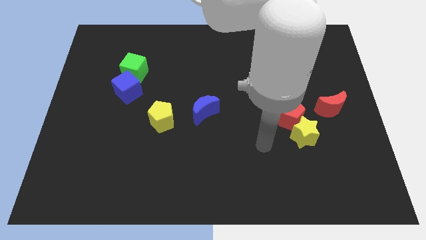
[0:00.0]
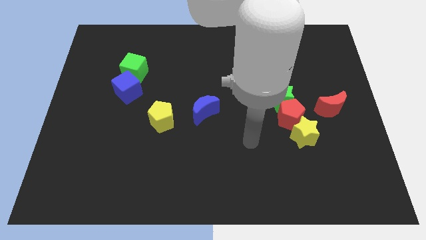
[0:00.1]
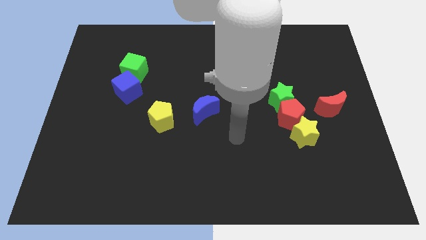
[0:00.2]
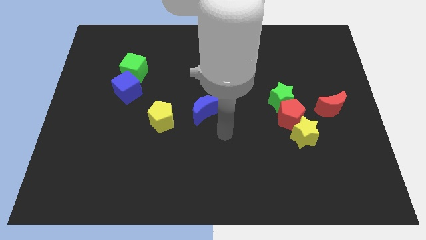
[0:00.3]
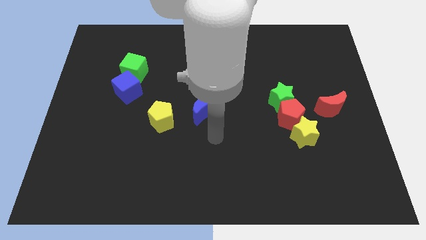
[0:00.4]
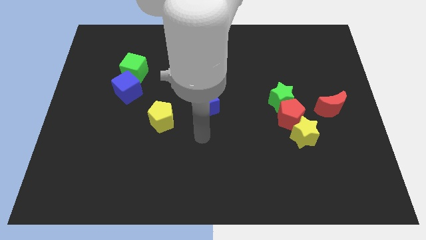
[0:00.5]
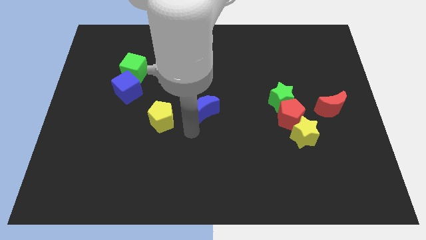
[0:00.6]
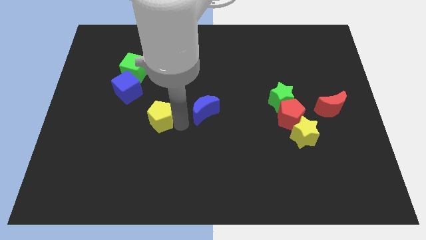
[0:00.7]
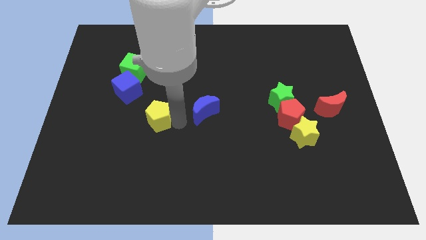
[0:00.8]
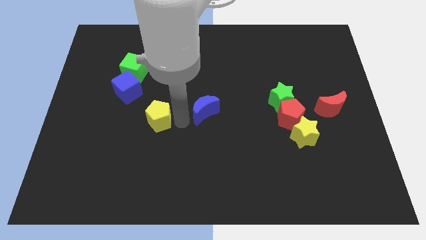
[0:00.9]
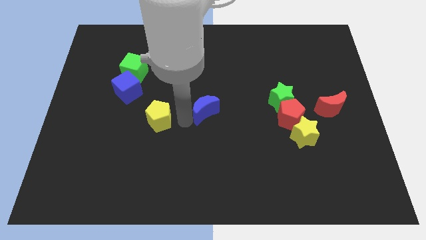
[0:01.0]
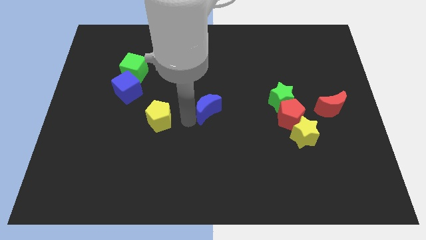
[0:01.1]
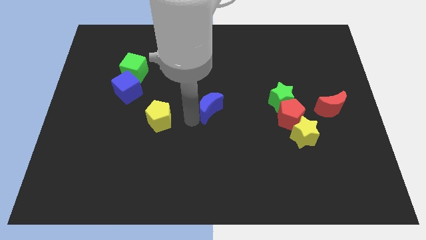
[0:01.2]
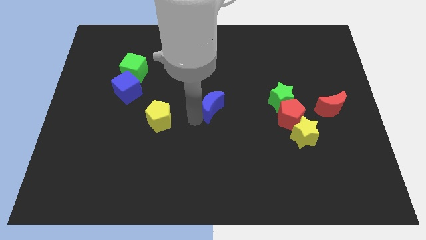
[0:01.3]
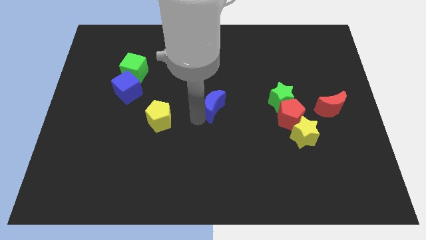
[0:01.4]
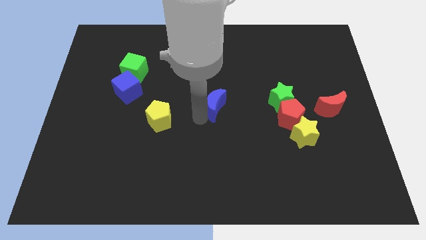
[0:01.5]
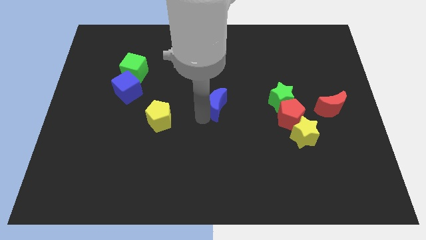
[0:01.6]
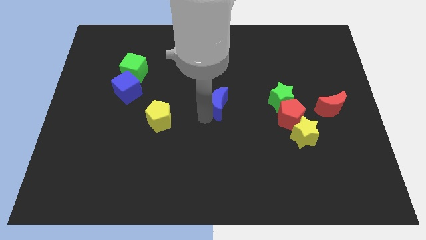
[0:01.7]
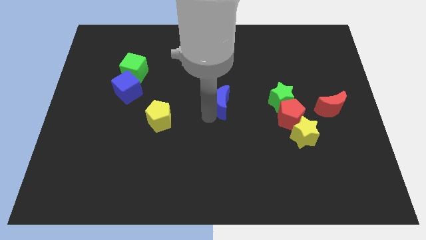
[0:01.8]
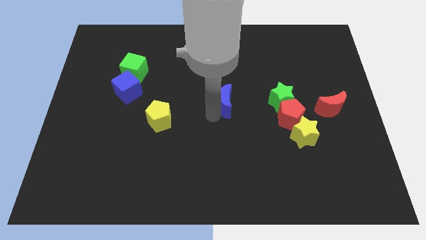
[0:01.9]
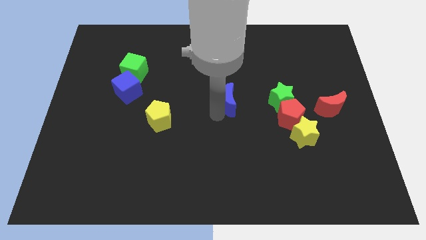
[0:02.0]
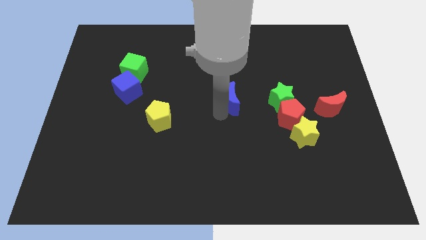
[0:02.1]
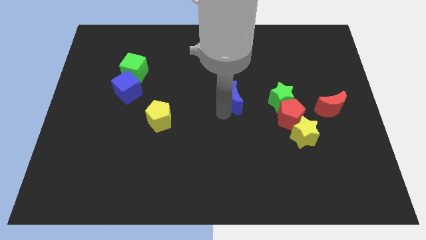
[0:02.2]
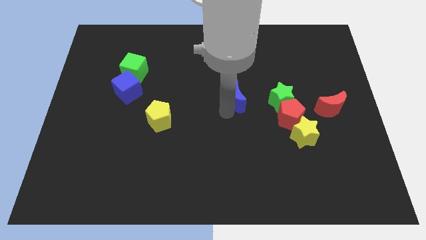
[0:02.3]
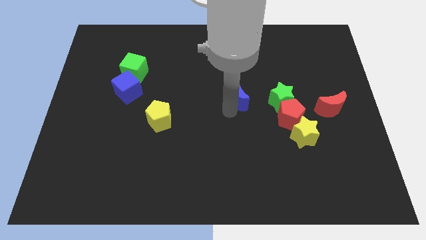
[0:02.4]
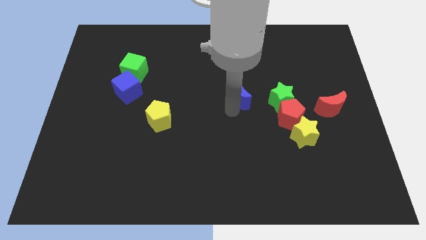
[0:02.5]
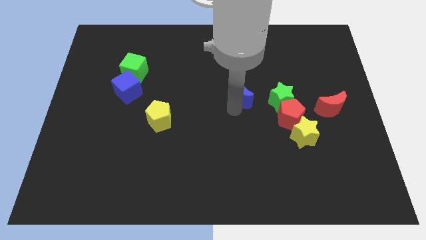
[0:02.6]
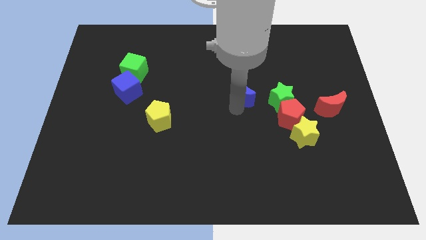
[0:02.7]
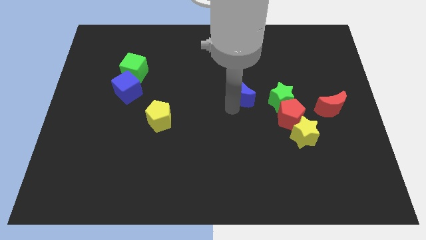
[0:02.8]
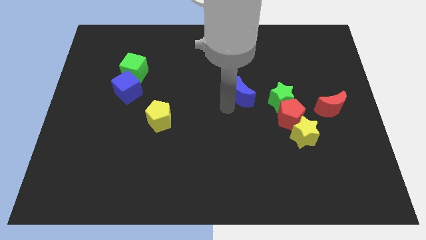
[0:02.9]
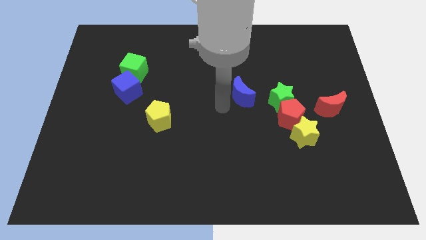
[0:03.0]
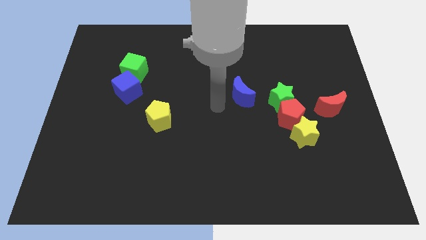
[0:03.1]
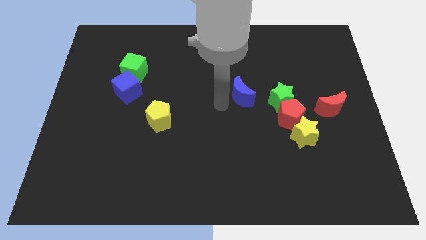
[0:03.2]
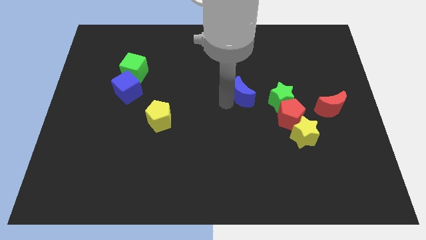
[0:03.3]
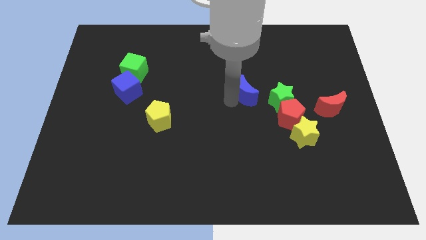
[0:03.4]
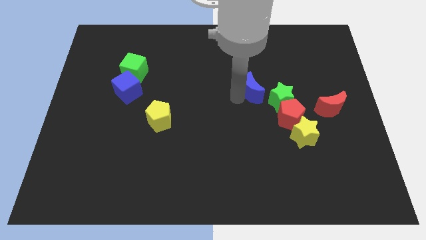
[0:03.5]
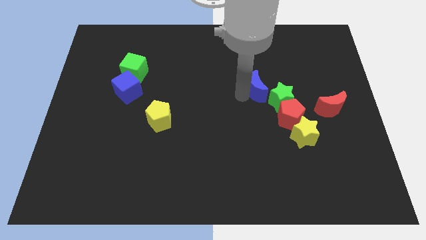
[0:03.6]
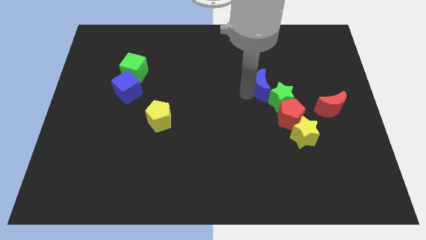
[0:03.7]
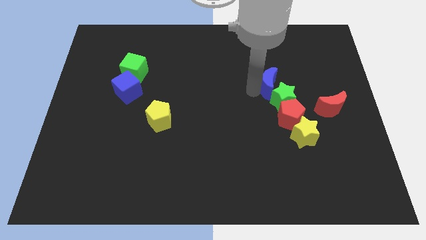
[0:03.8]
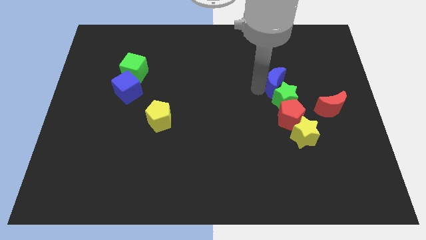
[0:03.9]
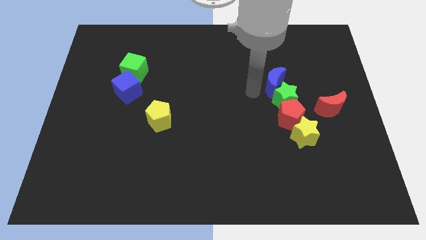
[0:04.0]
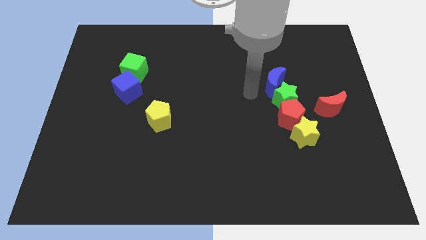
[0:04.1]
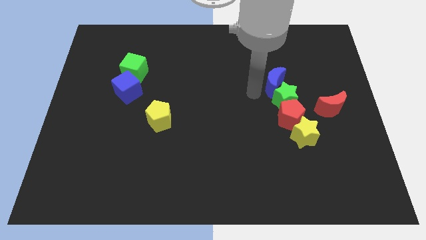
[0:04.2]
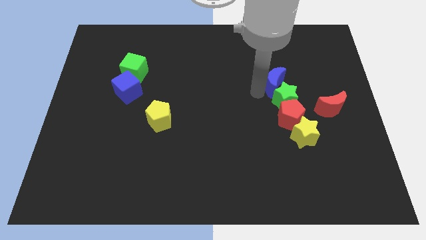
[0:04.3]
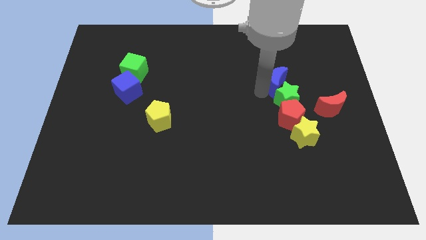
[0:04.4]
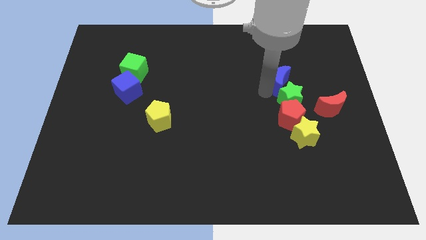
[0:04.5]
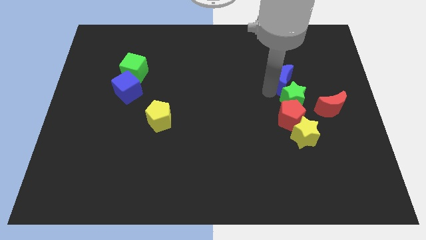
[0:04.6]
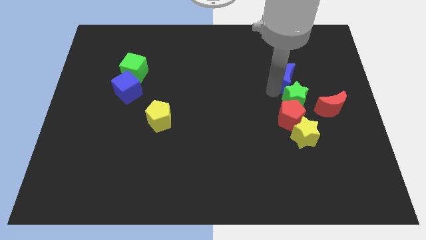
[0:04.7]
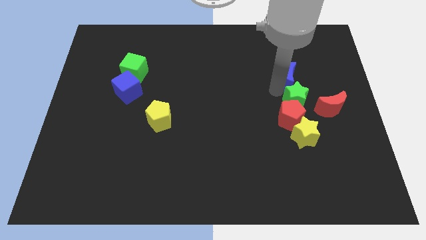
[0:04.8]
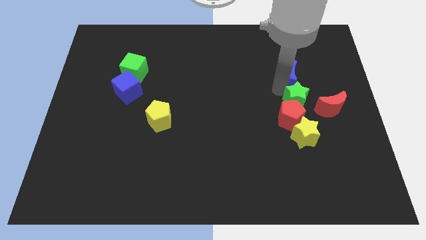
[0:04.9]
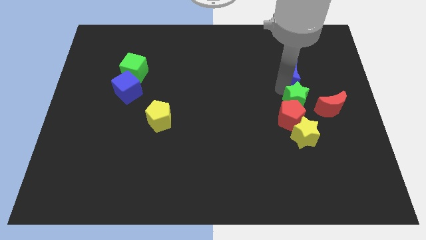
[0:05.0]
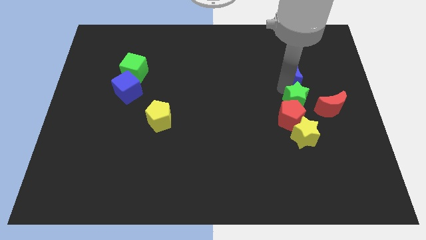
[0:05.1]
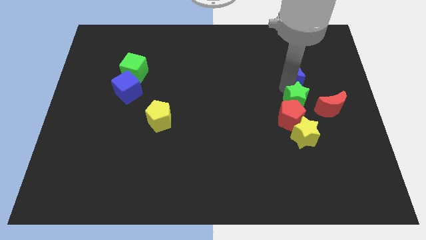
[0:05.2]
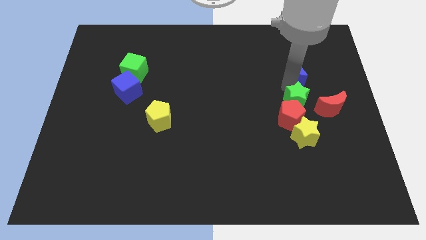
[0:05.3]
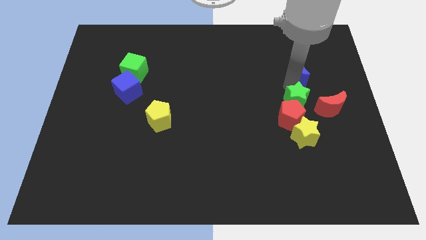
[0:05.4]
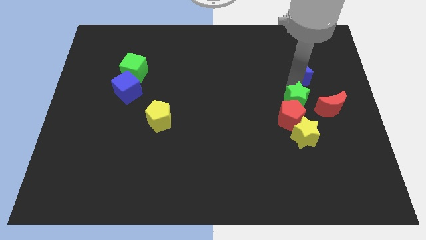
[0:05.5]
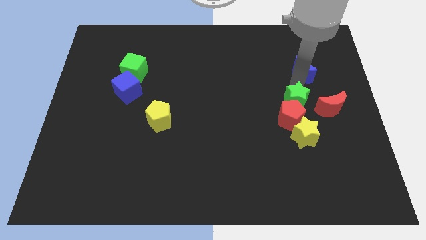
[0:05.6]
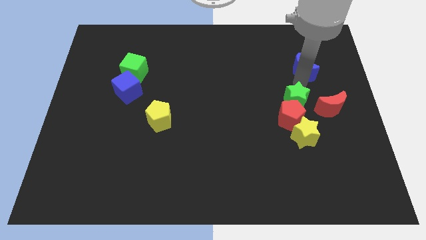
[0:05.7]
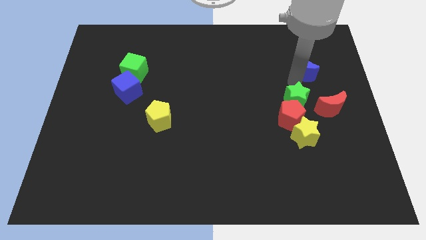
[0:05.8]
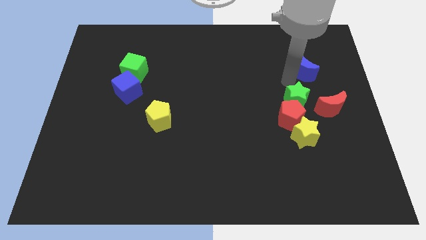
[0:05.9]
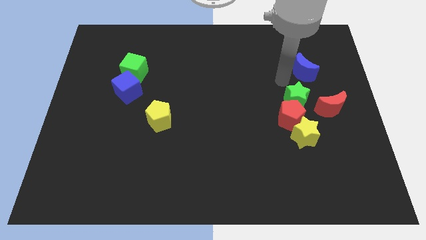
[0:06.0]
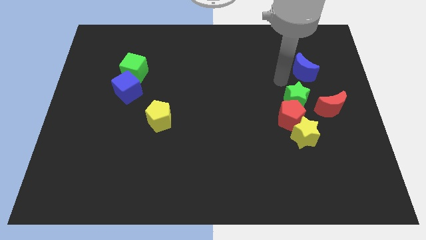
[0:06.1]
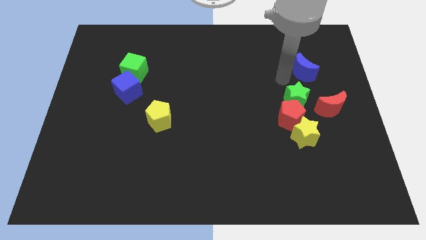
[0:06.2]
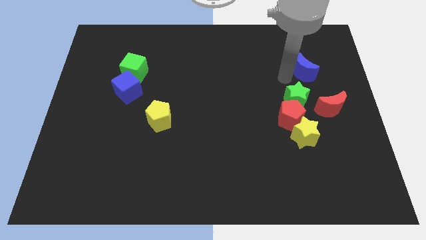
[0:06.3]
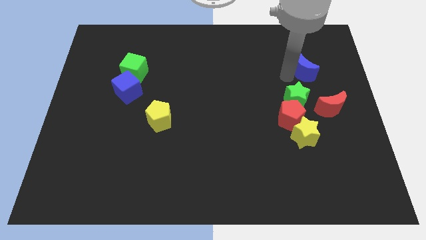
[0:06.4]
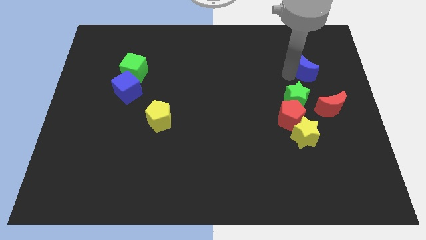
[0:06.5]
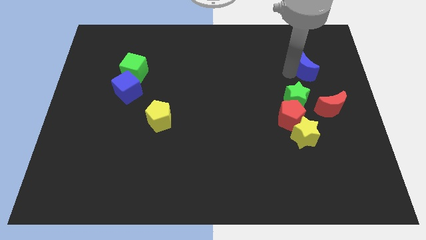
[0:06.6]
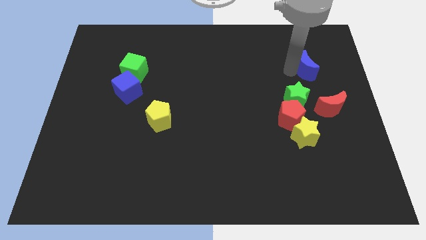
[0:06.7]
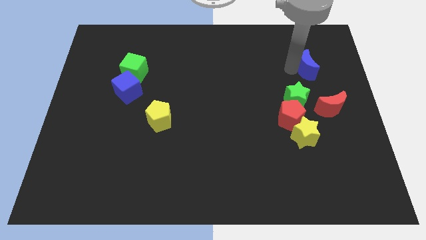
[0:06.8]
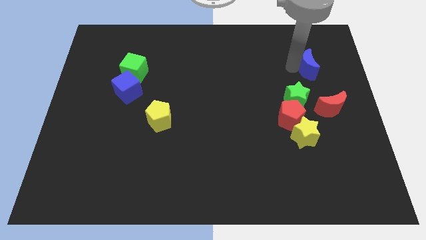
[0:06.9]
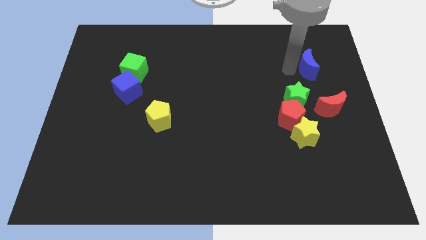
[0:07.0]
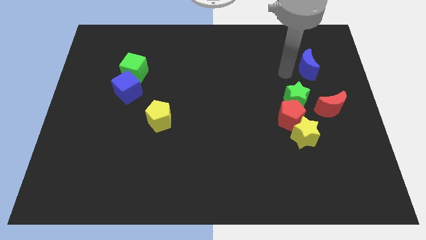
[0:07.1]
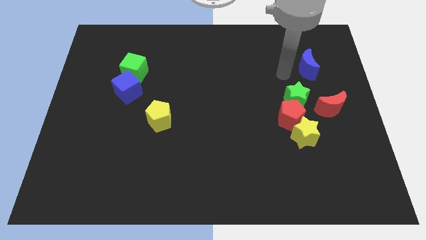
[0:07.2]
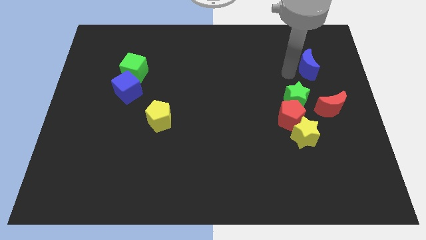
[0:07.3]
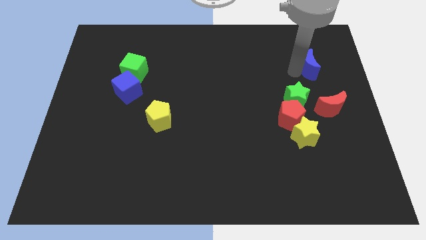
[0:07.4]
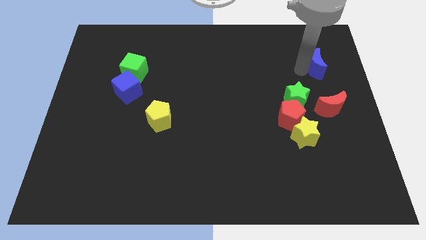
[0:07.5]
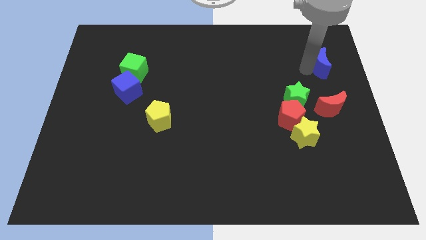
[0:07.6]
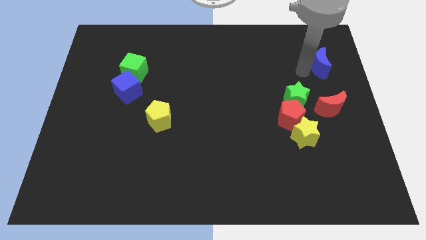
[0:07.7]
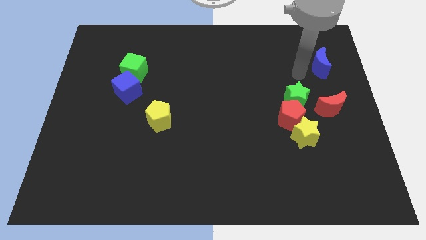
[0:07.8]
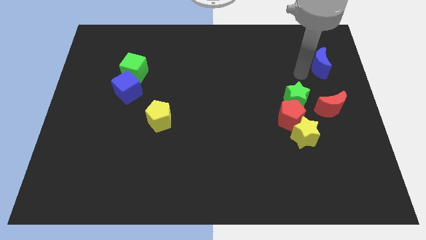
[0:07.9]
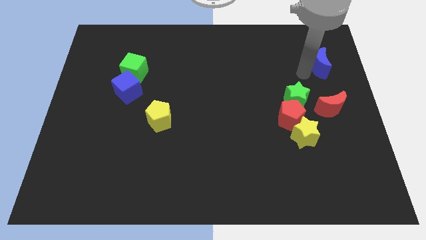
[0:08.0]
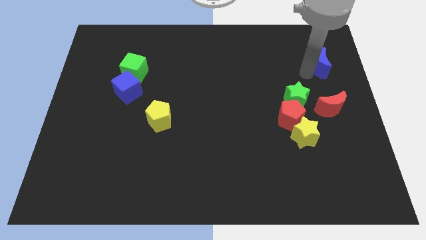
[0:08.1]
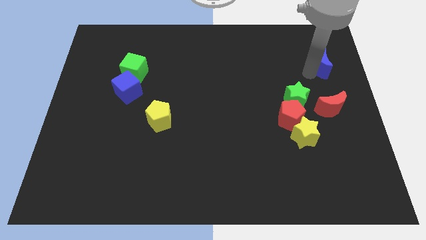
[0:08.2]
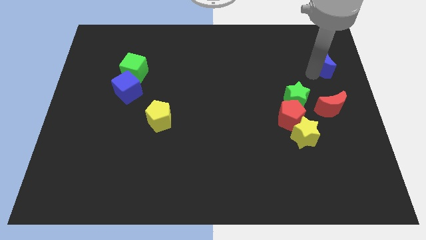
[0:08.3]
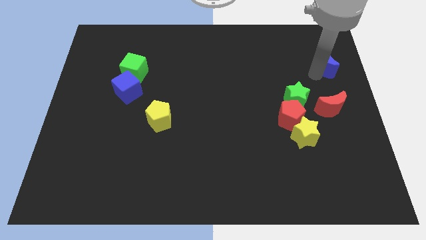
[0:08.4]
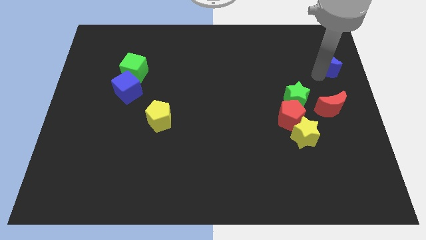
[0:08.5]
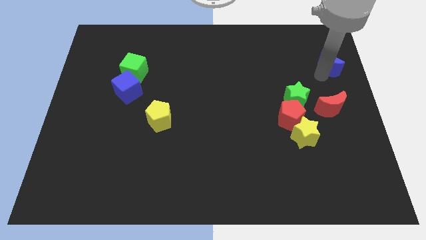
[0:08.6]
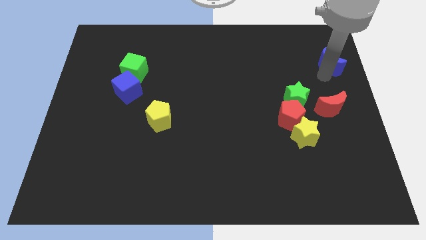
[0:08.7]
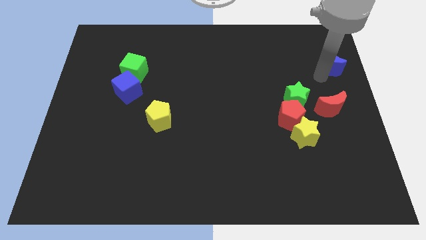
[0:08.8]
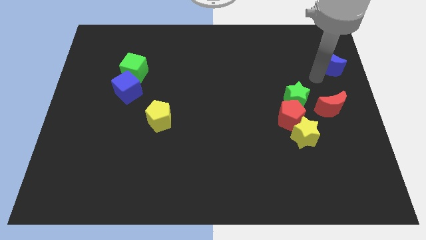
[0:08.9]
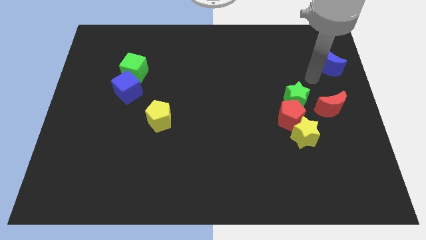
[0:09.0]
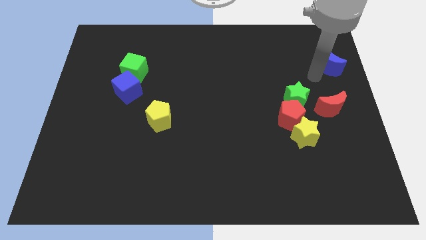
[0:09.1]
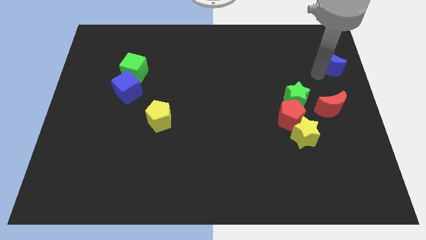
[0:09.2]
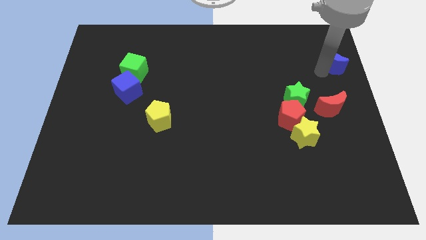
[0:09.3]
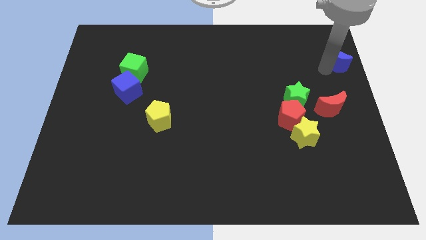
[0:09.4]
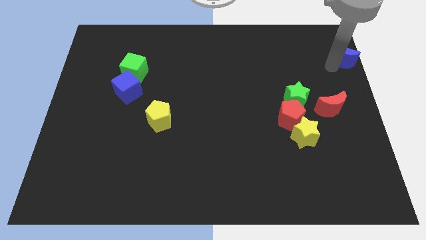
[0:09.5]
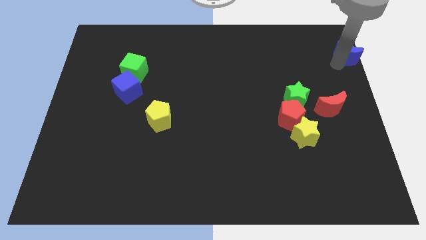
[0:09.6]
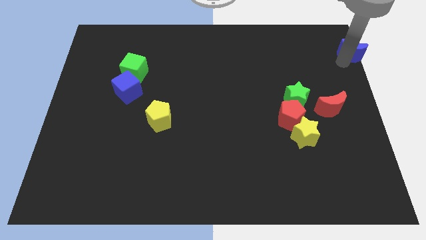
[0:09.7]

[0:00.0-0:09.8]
put the blue moon to the top right
